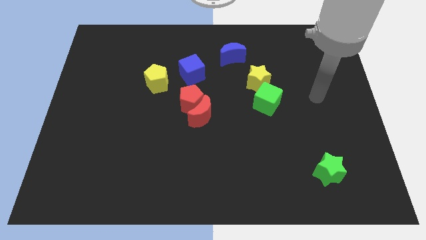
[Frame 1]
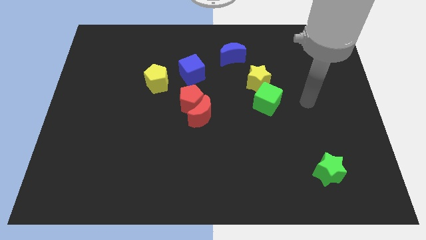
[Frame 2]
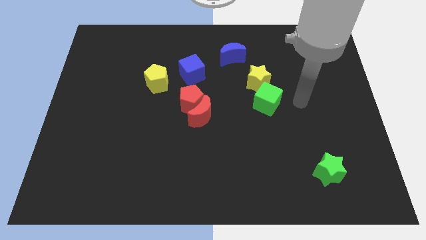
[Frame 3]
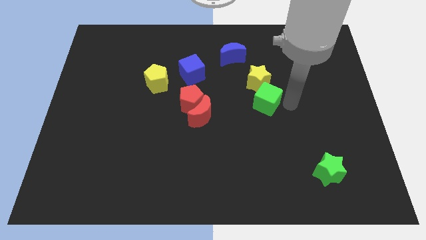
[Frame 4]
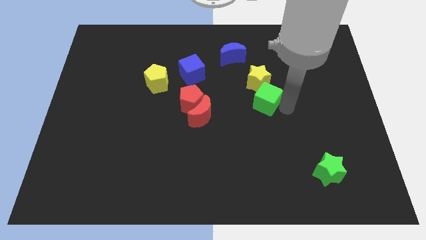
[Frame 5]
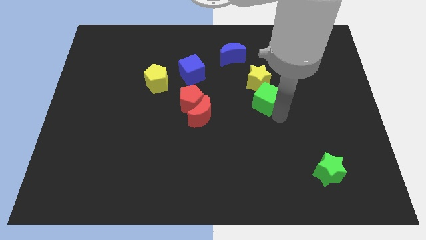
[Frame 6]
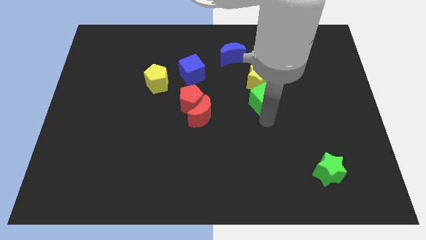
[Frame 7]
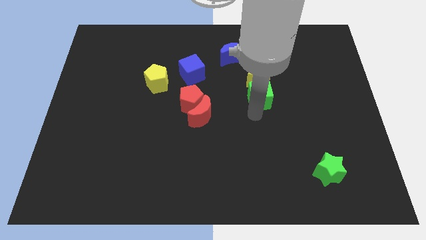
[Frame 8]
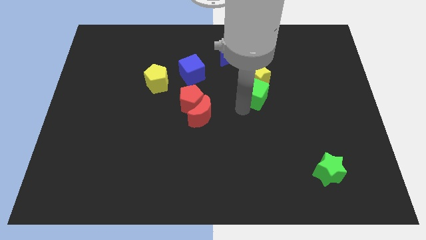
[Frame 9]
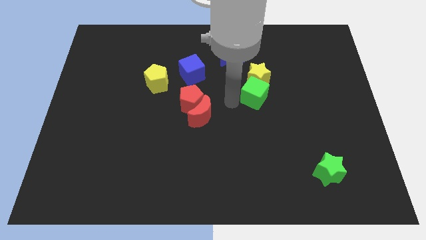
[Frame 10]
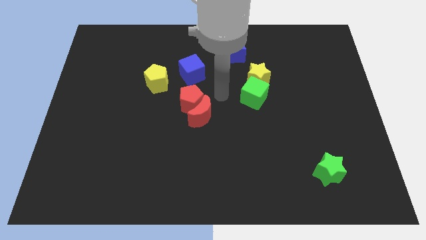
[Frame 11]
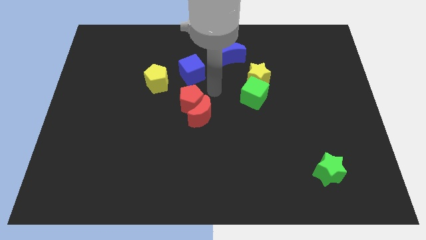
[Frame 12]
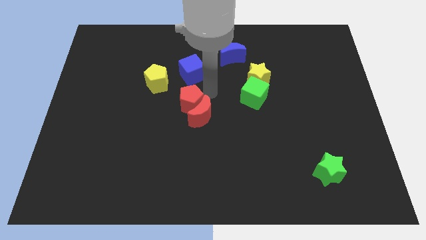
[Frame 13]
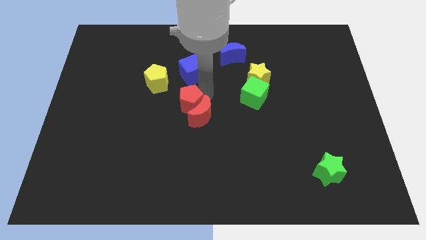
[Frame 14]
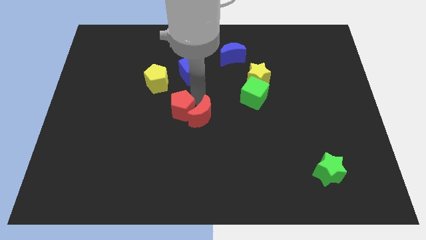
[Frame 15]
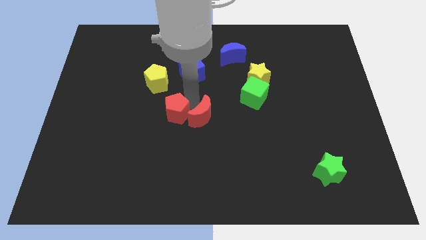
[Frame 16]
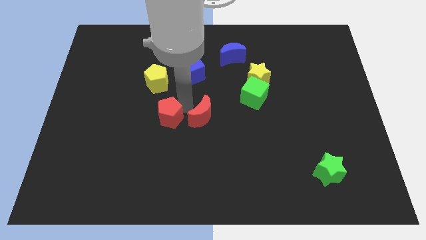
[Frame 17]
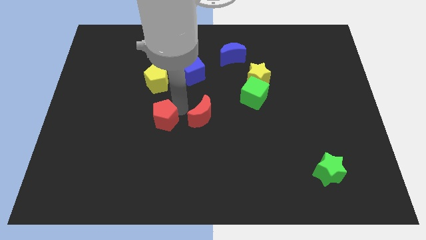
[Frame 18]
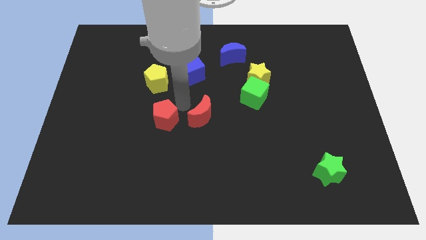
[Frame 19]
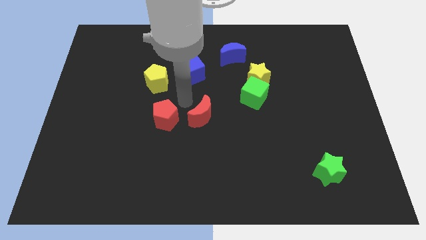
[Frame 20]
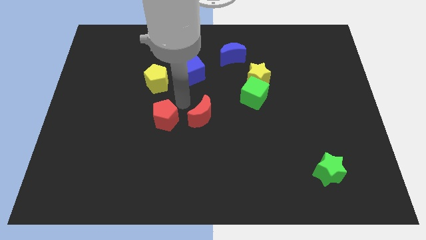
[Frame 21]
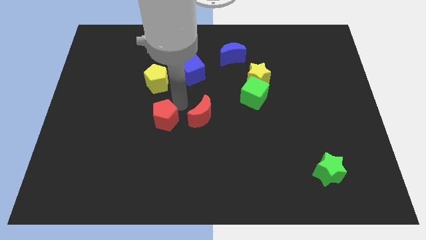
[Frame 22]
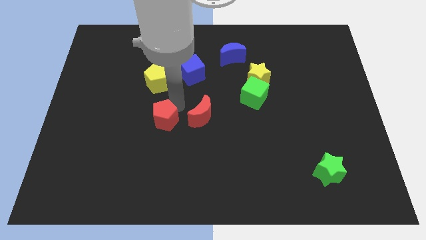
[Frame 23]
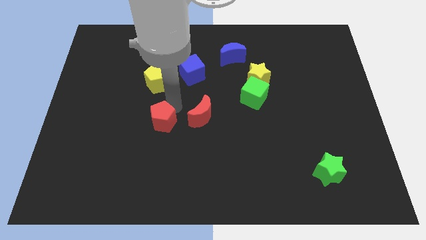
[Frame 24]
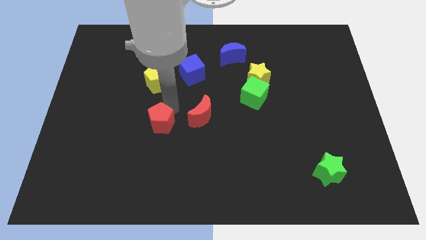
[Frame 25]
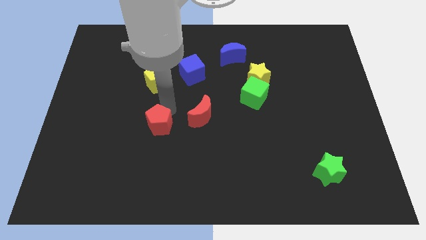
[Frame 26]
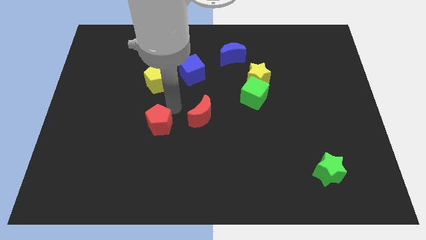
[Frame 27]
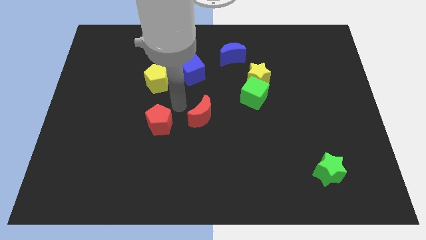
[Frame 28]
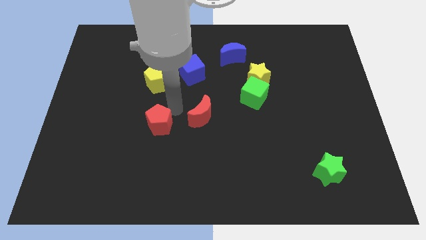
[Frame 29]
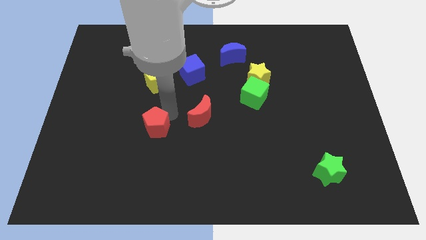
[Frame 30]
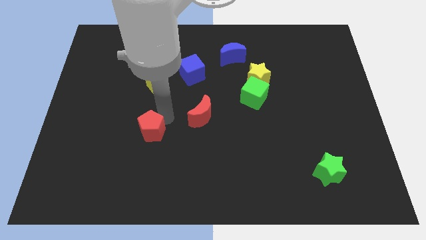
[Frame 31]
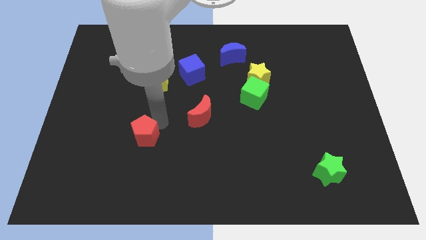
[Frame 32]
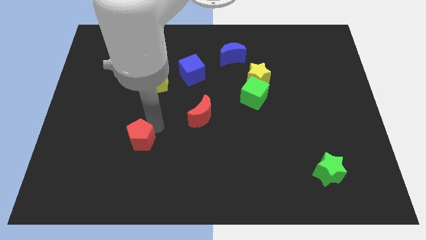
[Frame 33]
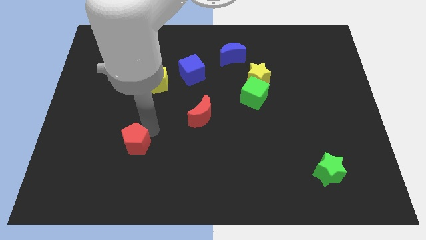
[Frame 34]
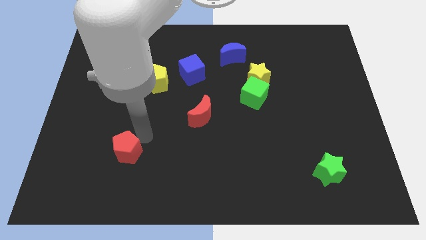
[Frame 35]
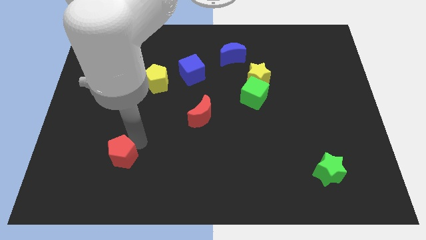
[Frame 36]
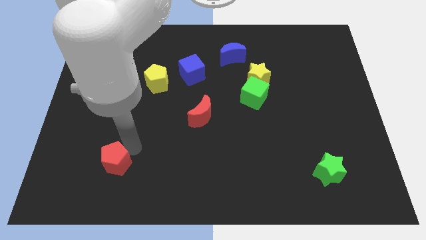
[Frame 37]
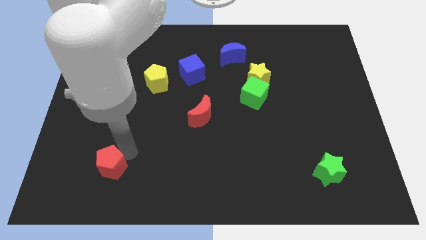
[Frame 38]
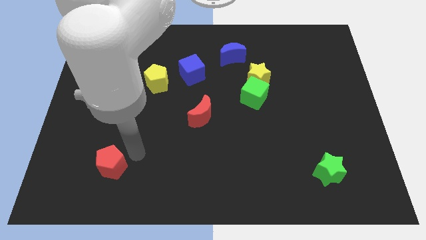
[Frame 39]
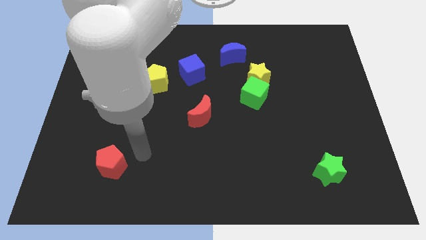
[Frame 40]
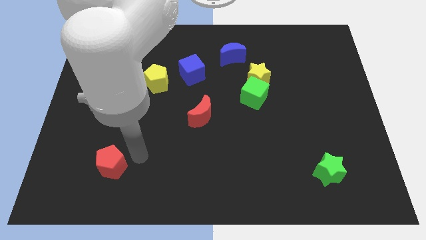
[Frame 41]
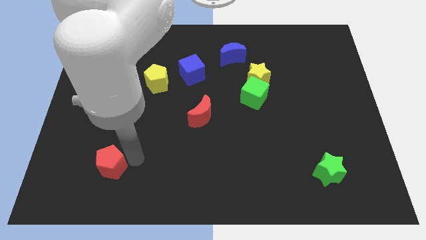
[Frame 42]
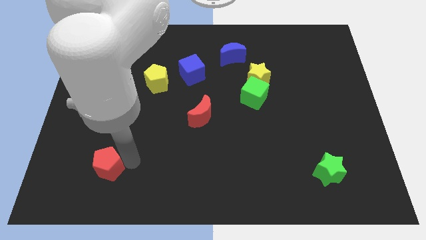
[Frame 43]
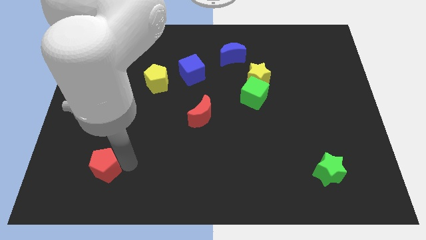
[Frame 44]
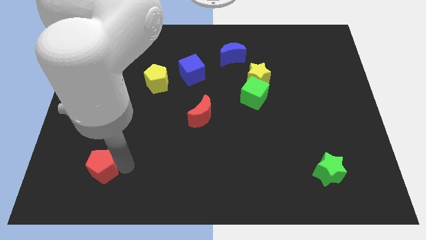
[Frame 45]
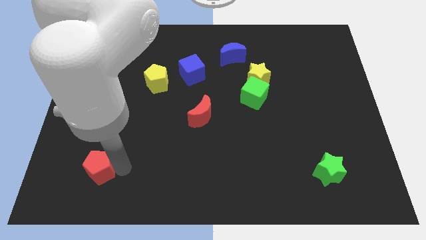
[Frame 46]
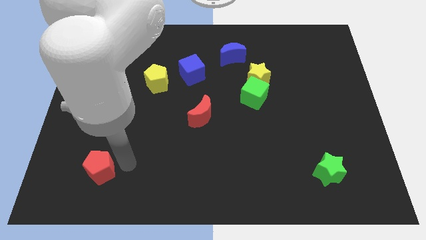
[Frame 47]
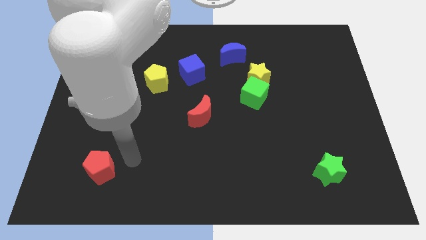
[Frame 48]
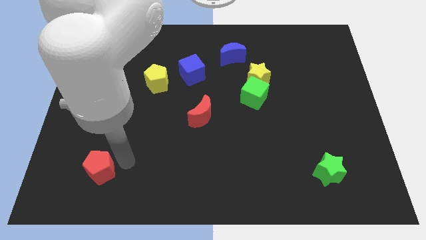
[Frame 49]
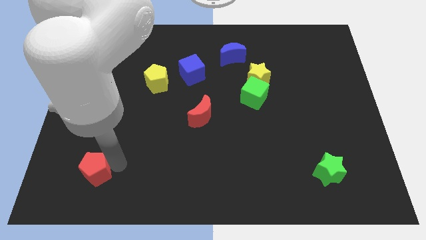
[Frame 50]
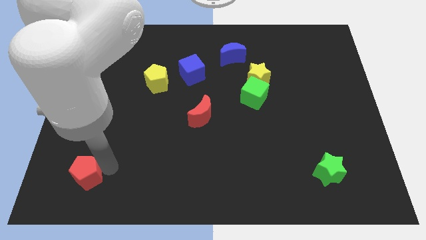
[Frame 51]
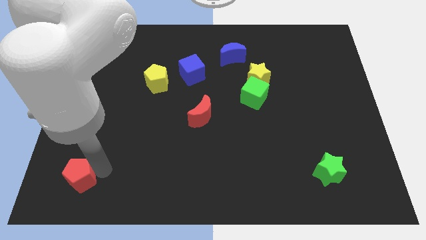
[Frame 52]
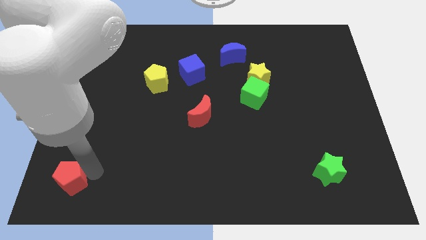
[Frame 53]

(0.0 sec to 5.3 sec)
put the red pentagon to the bottom left corner
